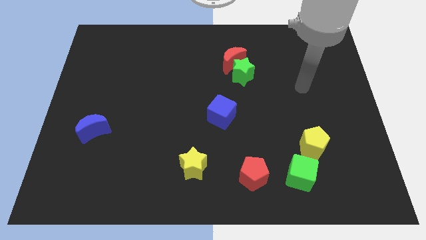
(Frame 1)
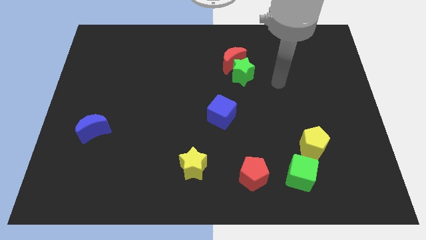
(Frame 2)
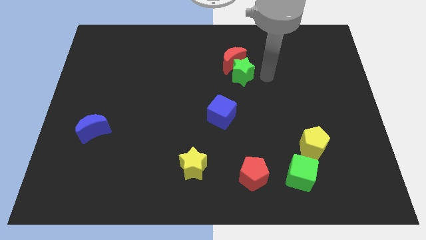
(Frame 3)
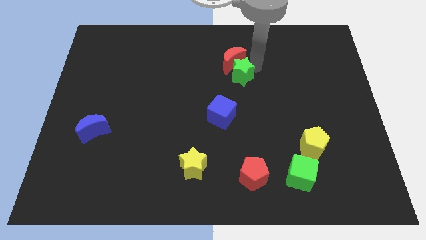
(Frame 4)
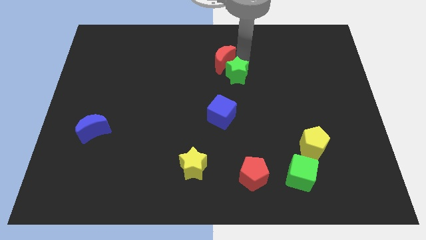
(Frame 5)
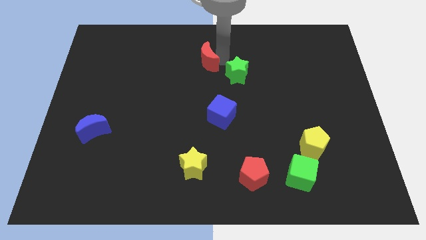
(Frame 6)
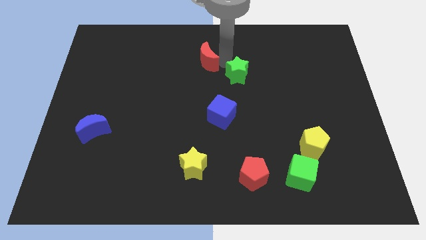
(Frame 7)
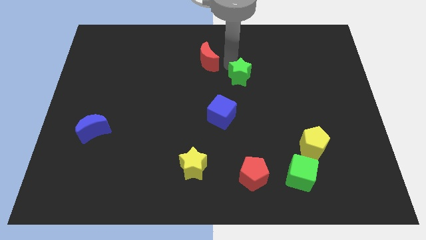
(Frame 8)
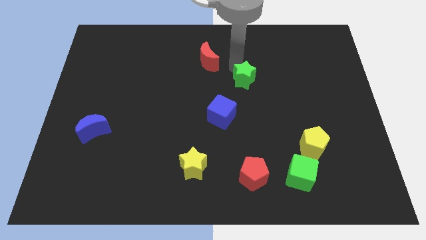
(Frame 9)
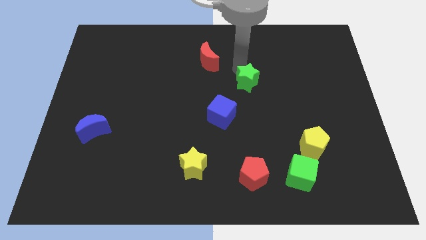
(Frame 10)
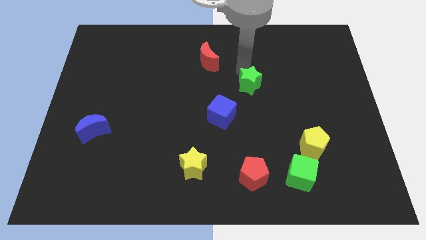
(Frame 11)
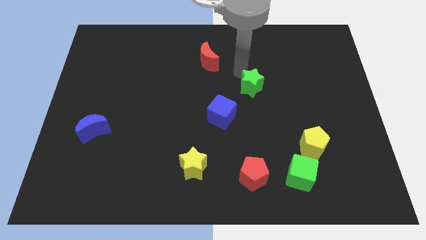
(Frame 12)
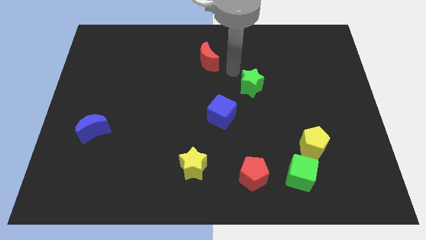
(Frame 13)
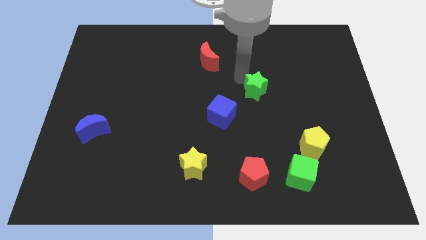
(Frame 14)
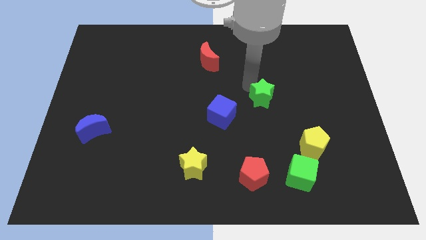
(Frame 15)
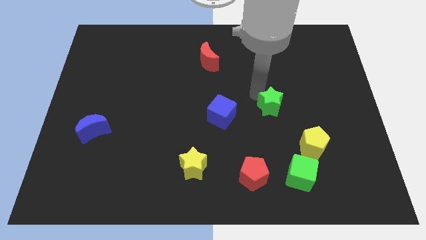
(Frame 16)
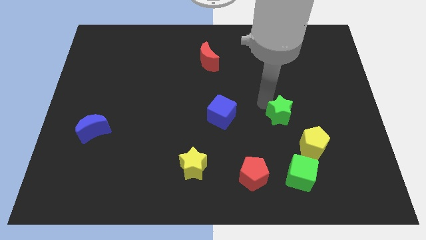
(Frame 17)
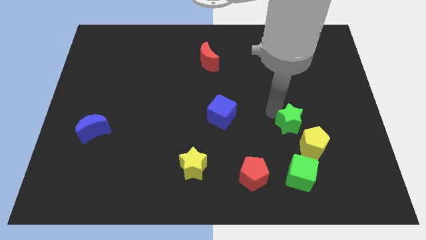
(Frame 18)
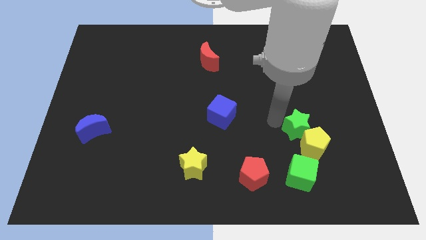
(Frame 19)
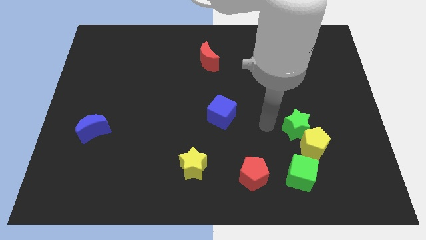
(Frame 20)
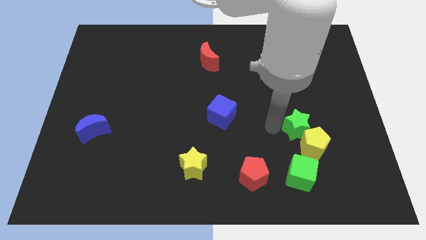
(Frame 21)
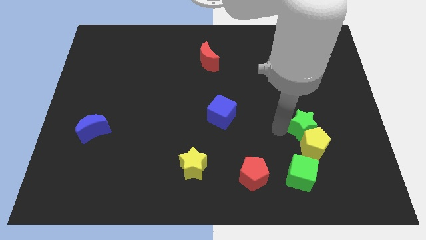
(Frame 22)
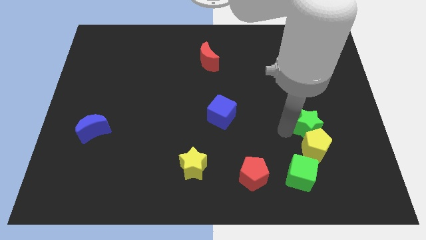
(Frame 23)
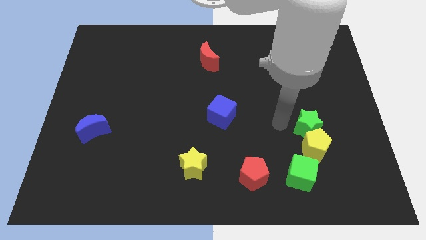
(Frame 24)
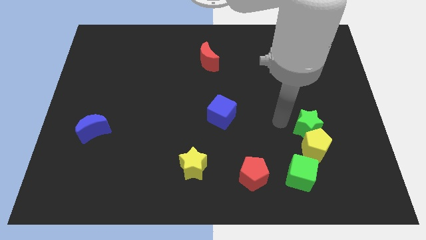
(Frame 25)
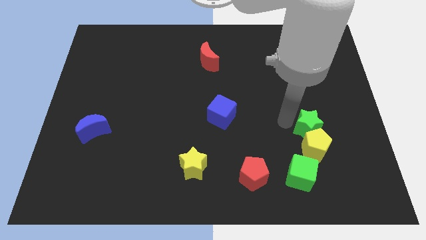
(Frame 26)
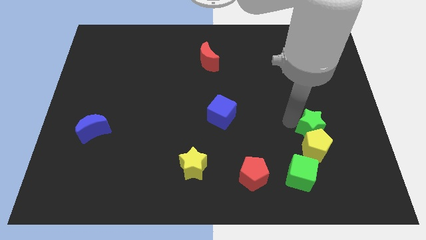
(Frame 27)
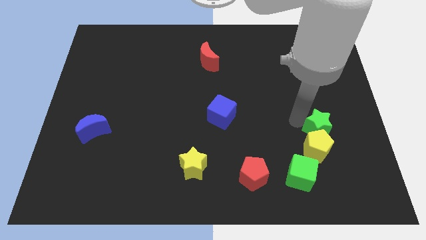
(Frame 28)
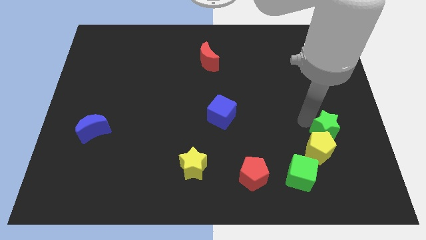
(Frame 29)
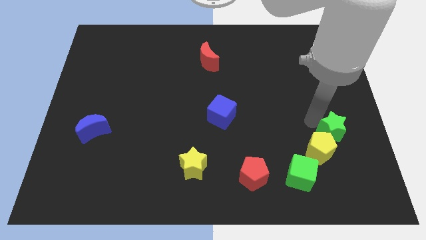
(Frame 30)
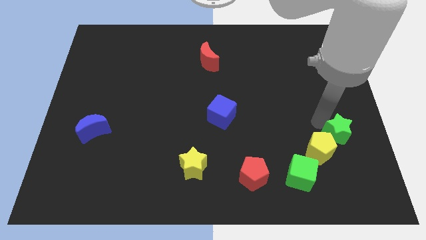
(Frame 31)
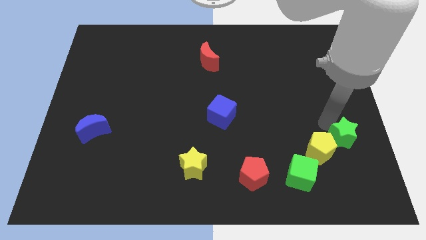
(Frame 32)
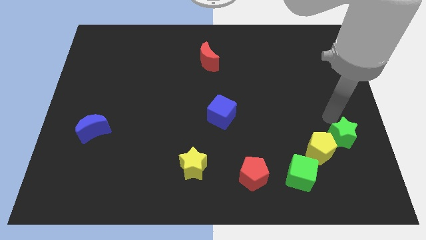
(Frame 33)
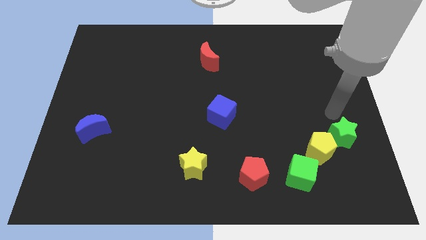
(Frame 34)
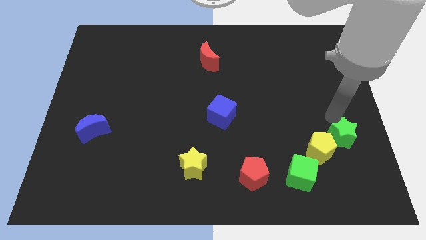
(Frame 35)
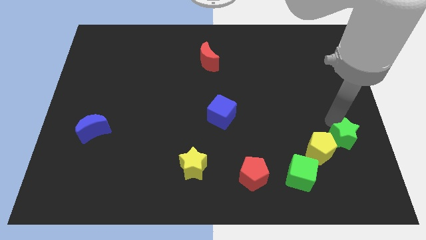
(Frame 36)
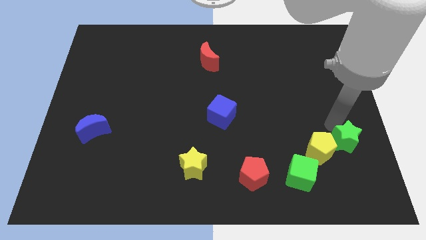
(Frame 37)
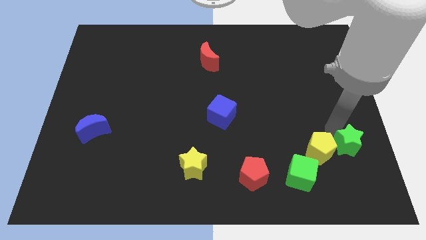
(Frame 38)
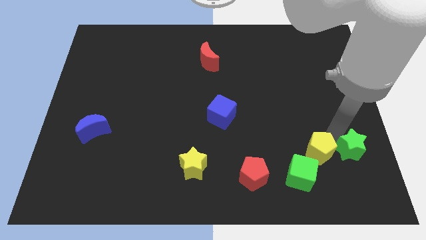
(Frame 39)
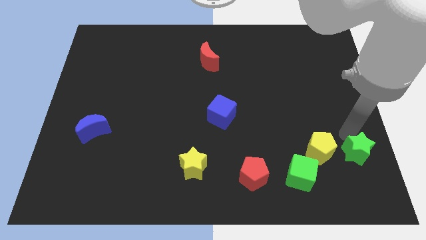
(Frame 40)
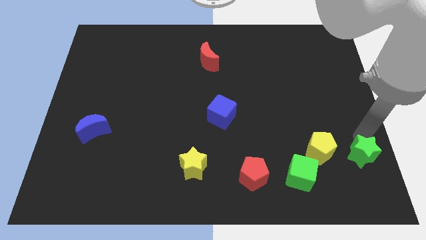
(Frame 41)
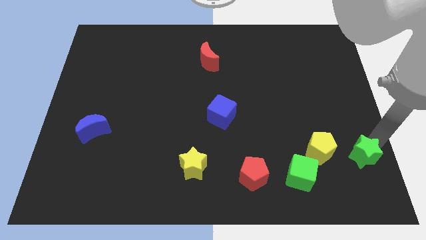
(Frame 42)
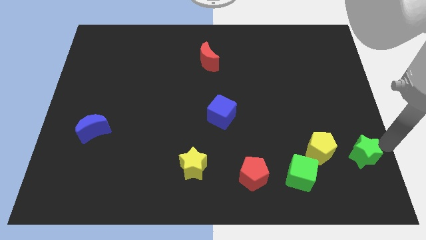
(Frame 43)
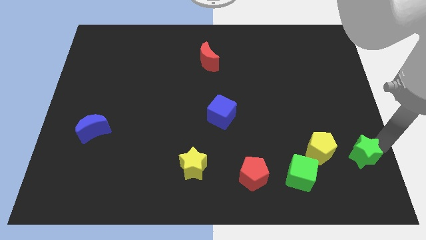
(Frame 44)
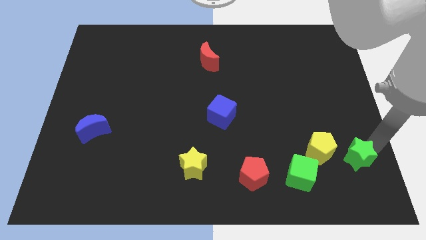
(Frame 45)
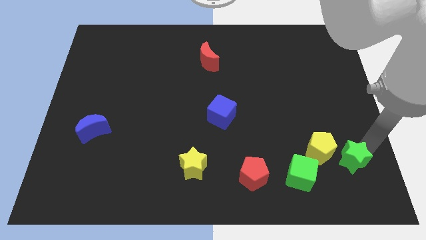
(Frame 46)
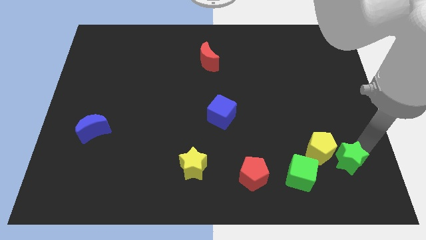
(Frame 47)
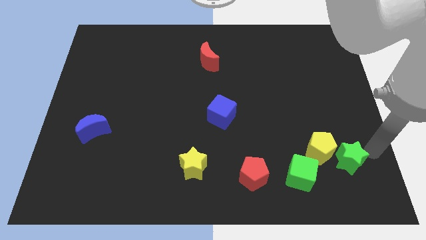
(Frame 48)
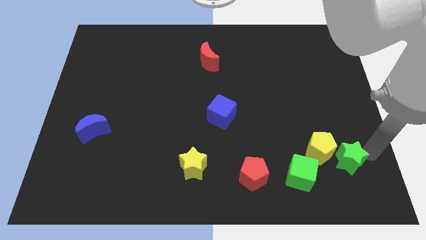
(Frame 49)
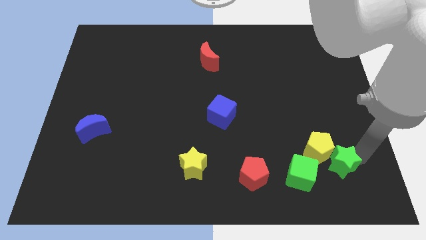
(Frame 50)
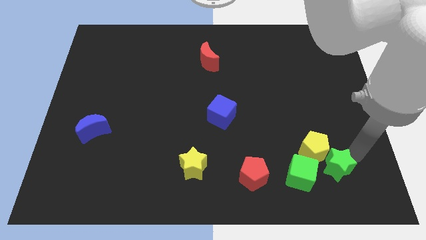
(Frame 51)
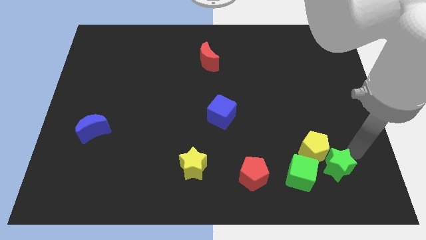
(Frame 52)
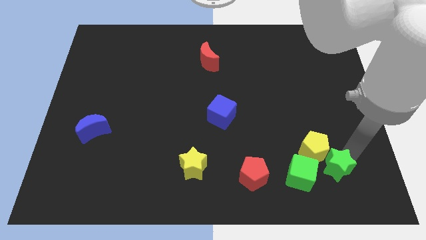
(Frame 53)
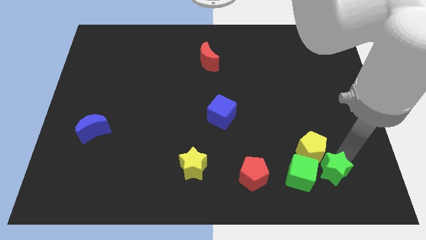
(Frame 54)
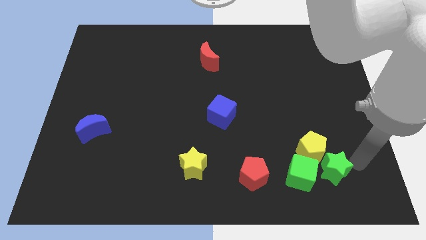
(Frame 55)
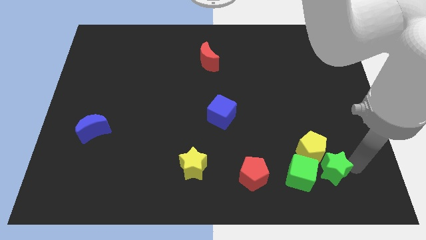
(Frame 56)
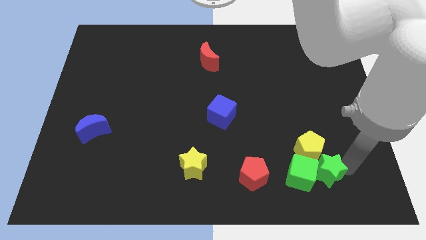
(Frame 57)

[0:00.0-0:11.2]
push the green star just right of the red pentagon
